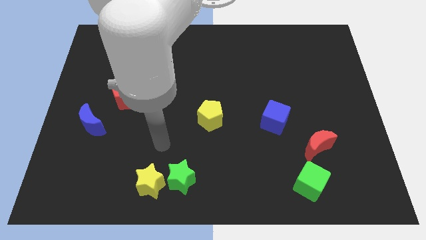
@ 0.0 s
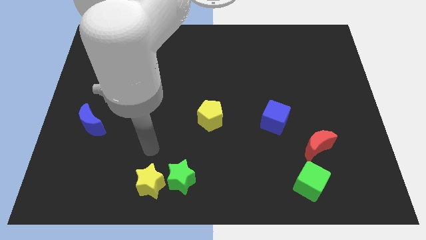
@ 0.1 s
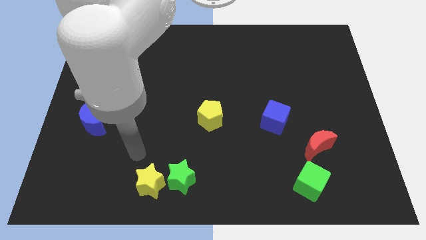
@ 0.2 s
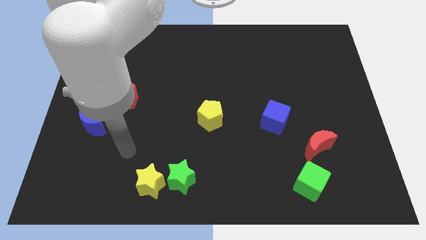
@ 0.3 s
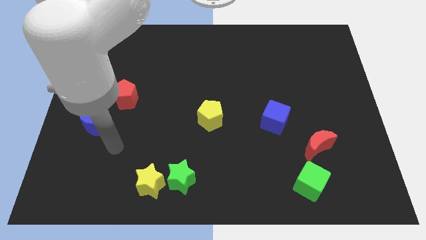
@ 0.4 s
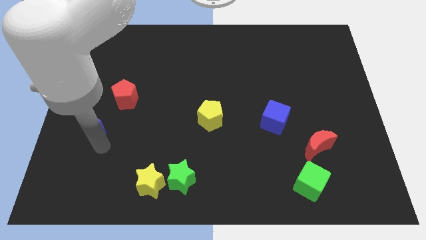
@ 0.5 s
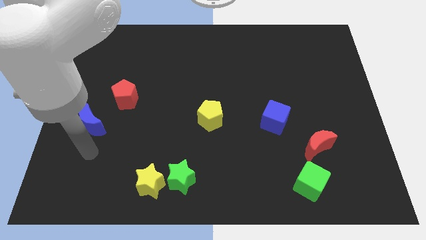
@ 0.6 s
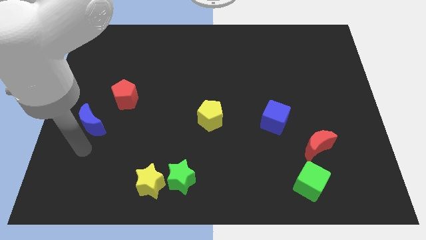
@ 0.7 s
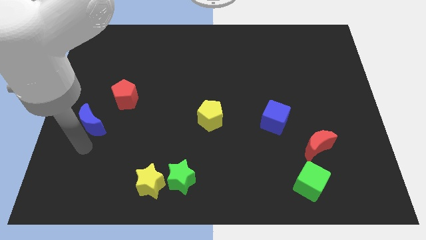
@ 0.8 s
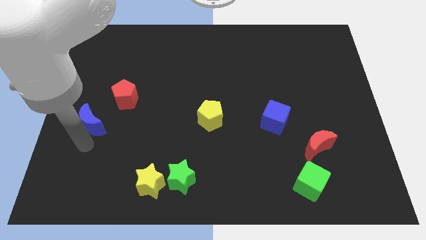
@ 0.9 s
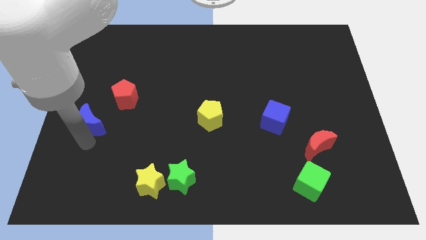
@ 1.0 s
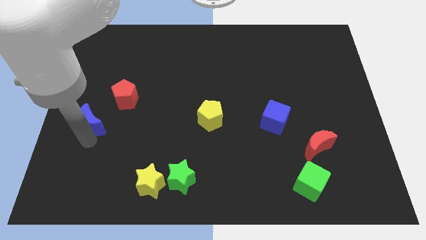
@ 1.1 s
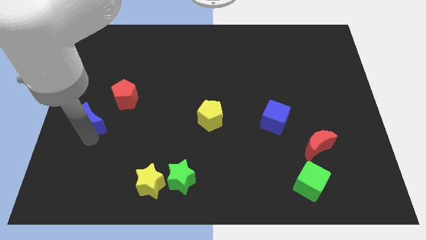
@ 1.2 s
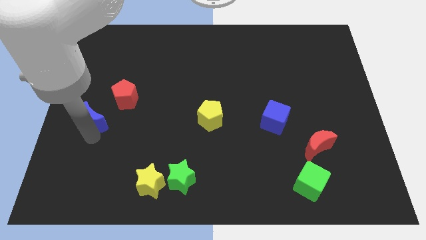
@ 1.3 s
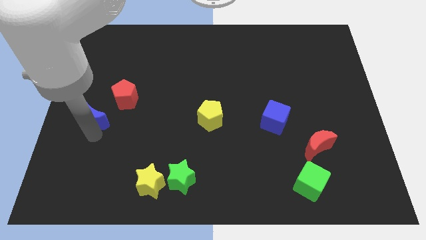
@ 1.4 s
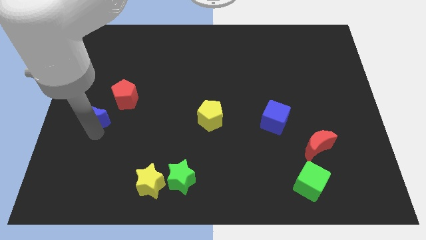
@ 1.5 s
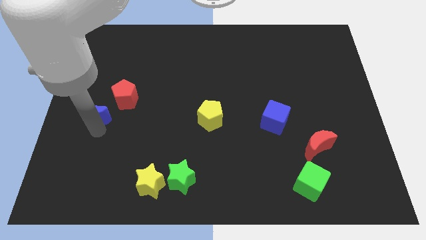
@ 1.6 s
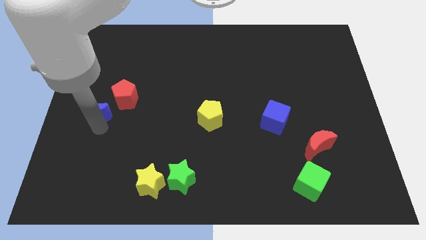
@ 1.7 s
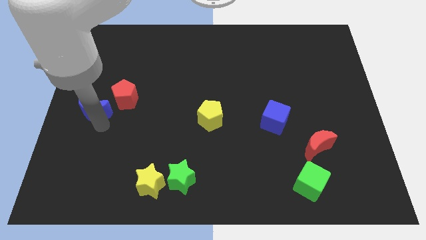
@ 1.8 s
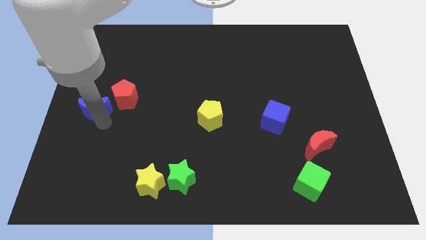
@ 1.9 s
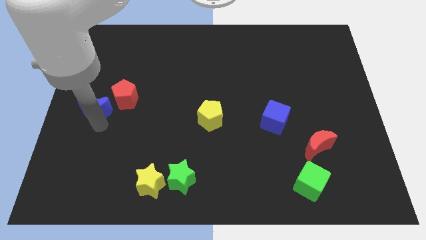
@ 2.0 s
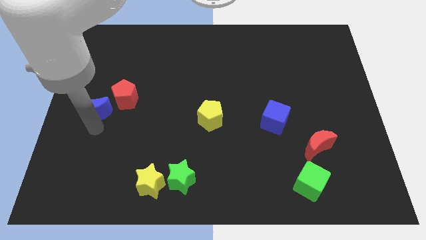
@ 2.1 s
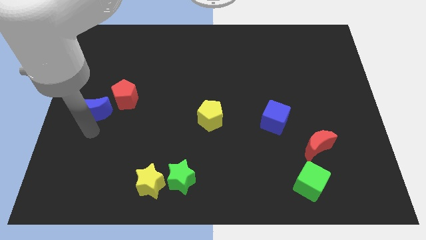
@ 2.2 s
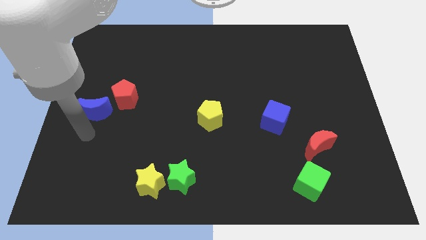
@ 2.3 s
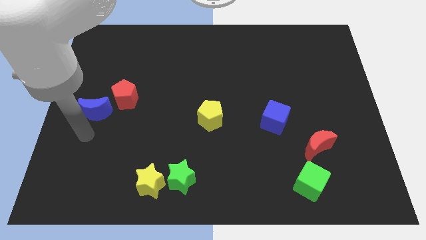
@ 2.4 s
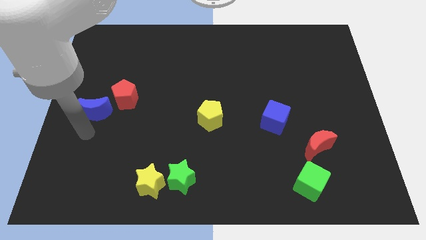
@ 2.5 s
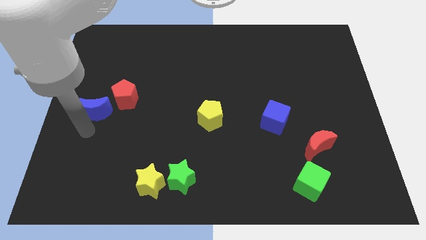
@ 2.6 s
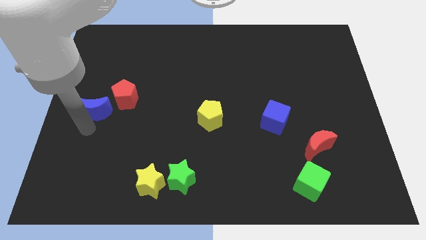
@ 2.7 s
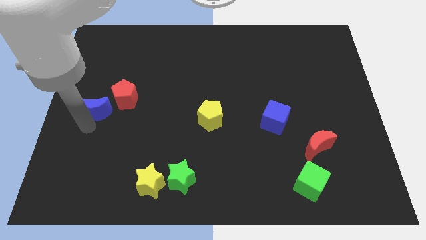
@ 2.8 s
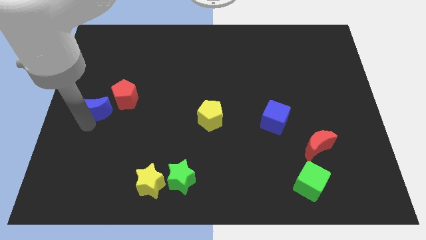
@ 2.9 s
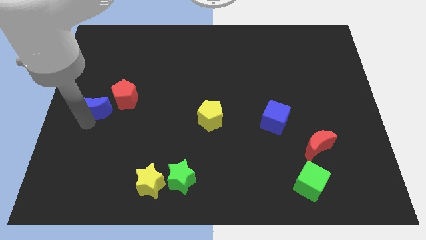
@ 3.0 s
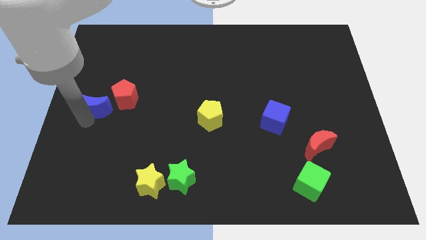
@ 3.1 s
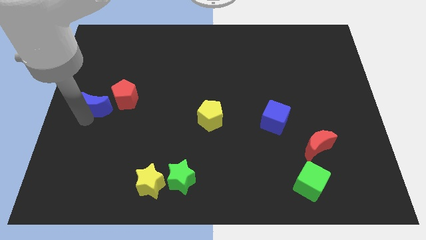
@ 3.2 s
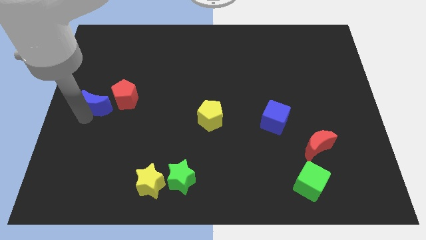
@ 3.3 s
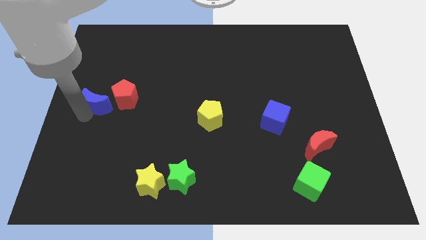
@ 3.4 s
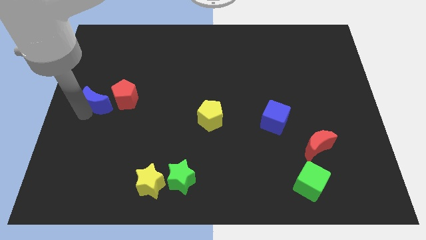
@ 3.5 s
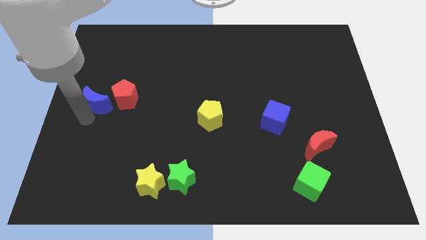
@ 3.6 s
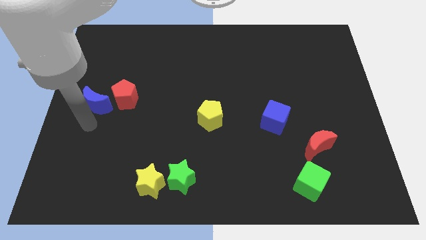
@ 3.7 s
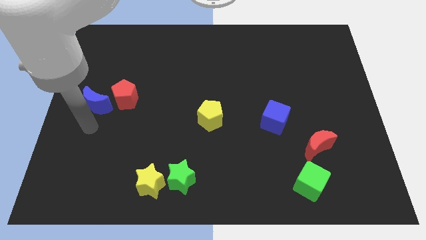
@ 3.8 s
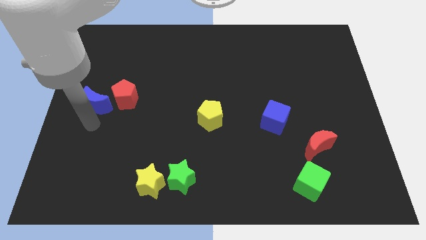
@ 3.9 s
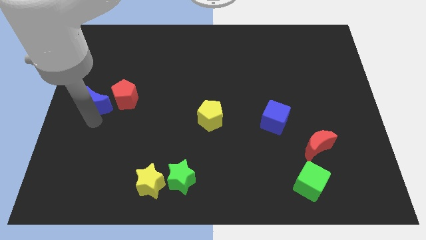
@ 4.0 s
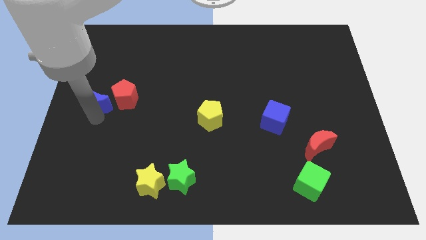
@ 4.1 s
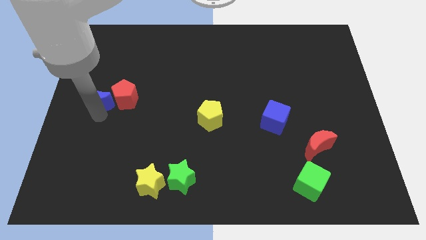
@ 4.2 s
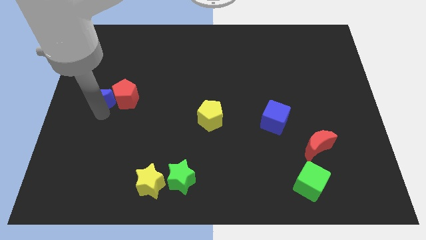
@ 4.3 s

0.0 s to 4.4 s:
slightly move the blue moon up

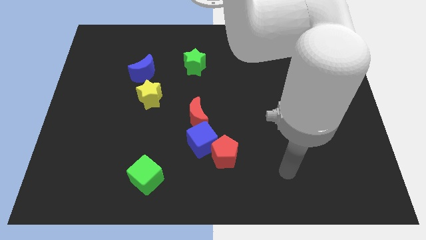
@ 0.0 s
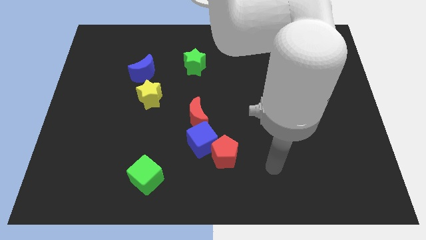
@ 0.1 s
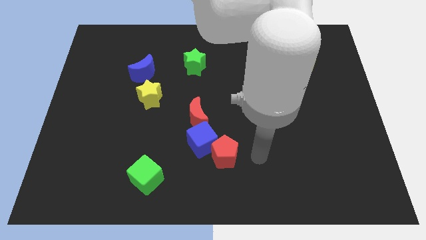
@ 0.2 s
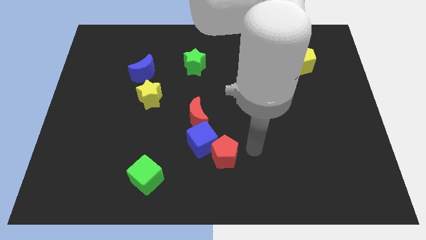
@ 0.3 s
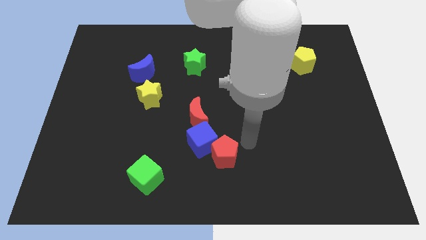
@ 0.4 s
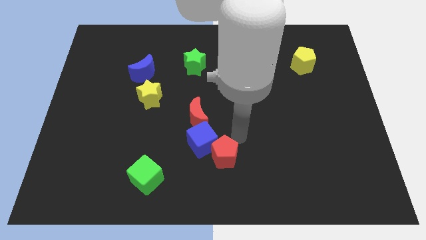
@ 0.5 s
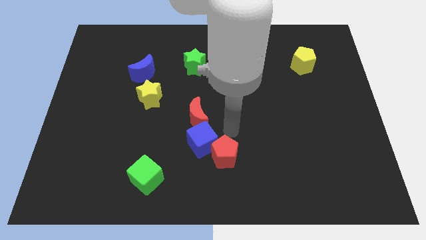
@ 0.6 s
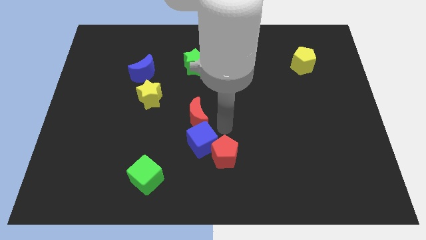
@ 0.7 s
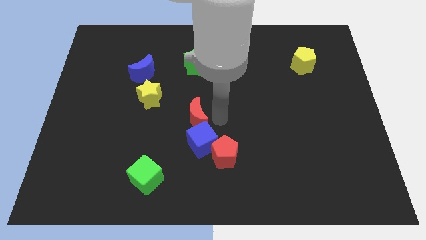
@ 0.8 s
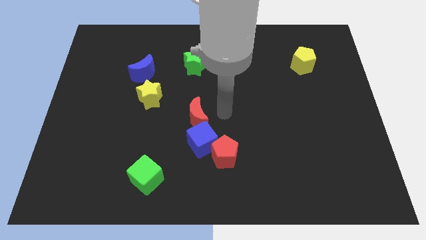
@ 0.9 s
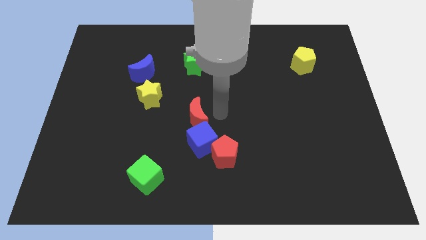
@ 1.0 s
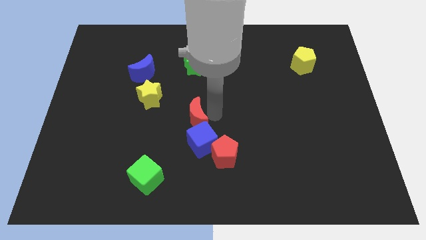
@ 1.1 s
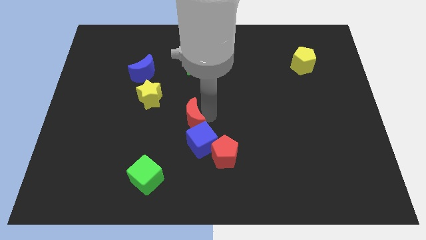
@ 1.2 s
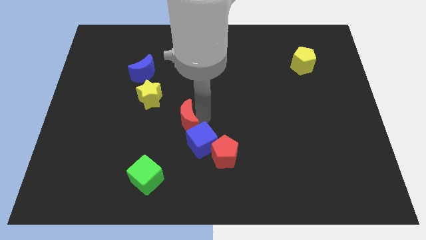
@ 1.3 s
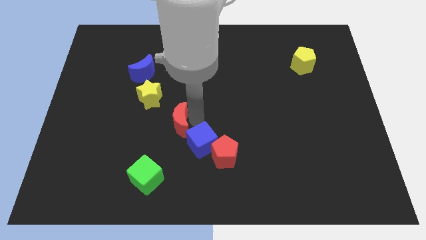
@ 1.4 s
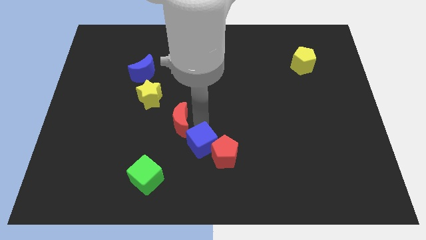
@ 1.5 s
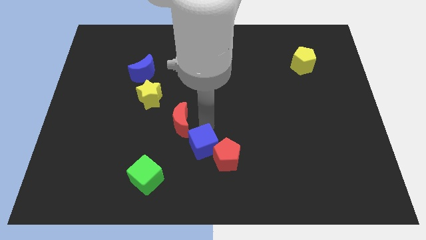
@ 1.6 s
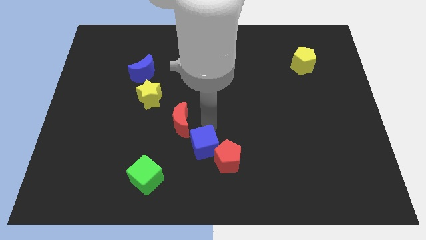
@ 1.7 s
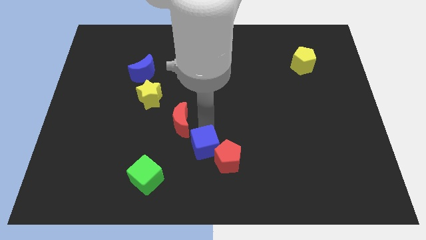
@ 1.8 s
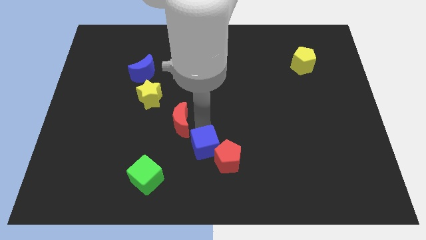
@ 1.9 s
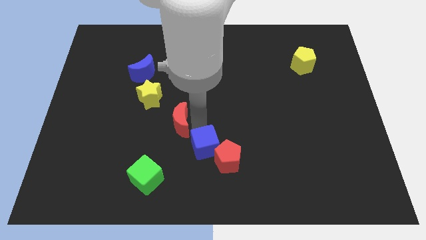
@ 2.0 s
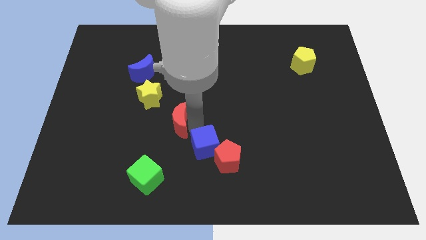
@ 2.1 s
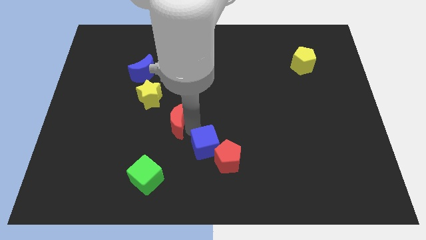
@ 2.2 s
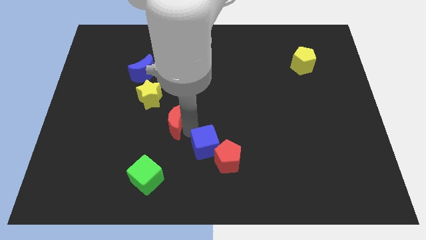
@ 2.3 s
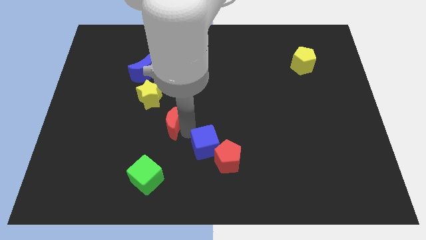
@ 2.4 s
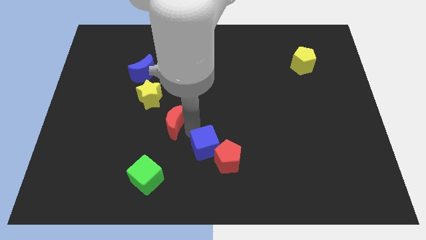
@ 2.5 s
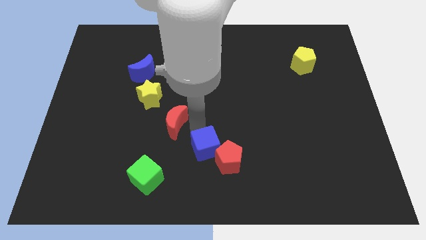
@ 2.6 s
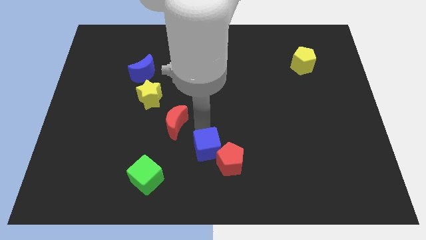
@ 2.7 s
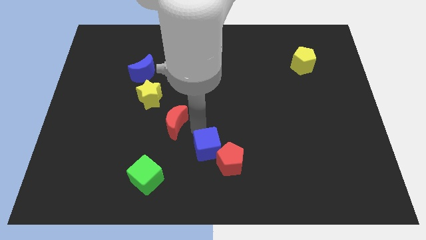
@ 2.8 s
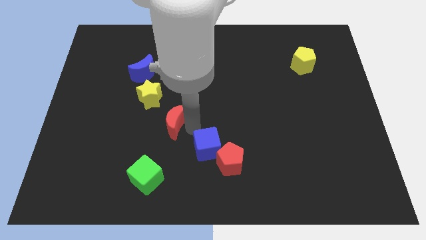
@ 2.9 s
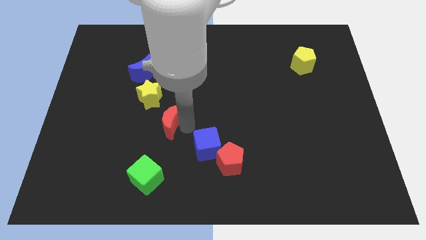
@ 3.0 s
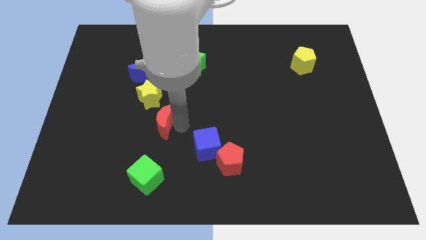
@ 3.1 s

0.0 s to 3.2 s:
slide the red moon to the left somewhat
